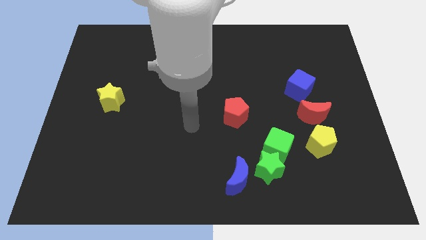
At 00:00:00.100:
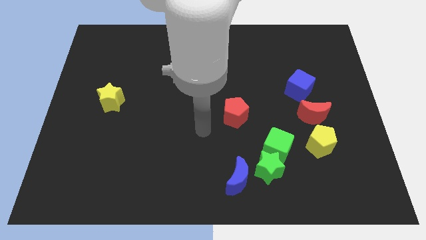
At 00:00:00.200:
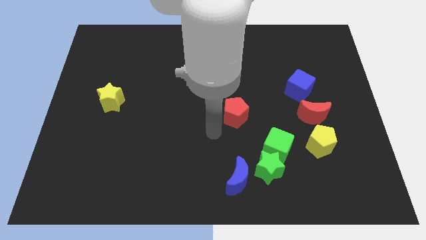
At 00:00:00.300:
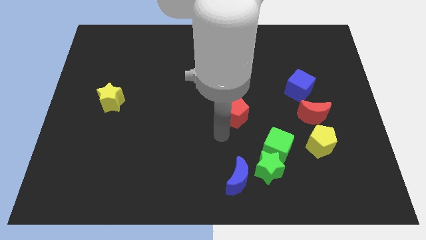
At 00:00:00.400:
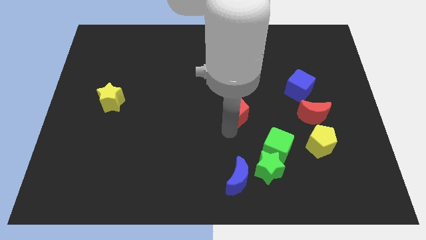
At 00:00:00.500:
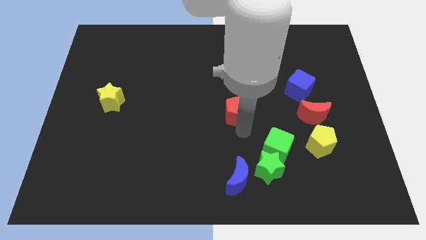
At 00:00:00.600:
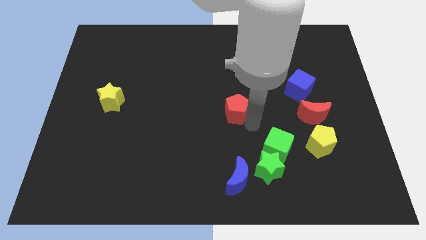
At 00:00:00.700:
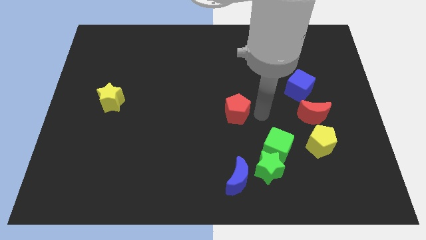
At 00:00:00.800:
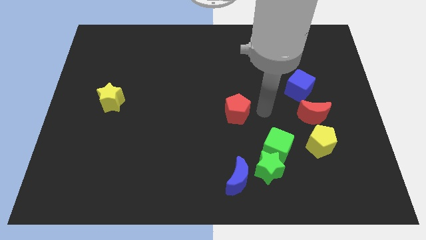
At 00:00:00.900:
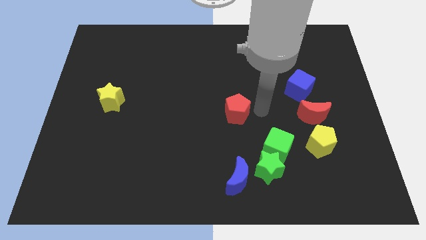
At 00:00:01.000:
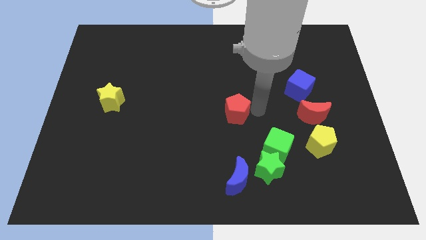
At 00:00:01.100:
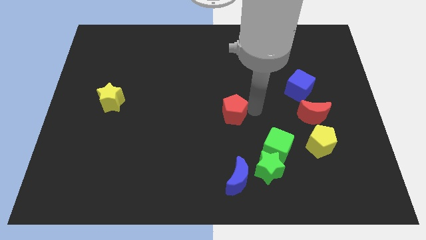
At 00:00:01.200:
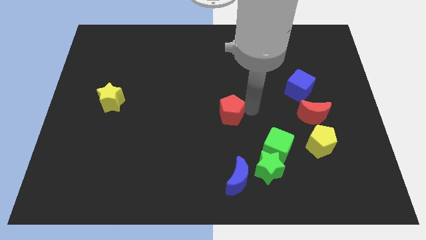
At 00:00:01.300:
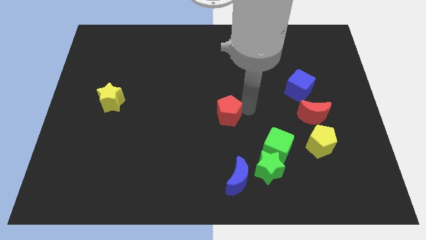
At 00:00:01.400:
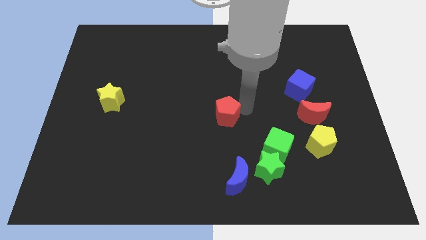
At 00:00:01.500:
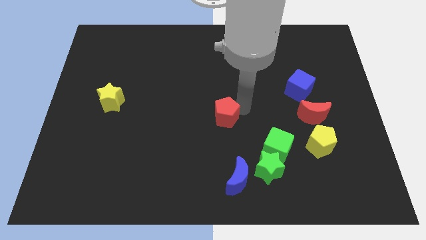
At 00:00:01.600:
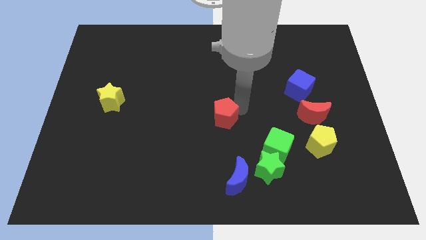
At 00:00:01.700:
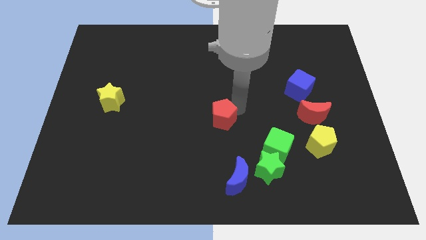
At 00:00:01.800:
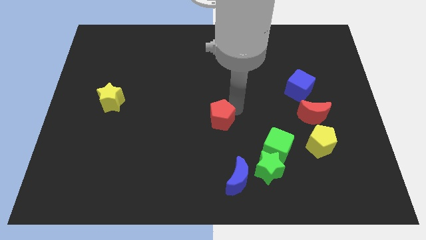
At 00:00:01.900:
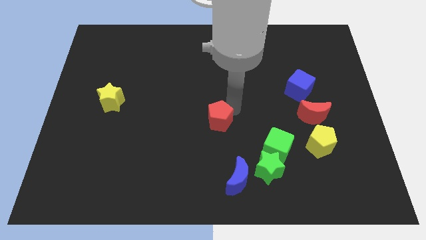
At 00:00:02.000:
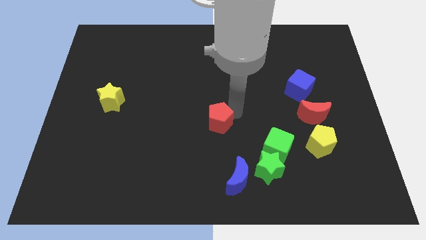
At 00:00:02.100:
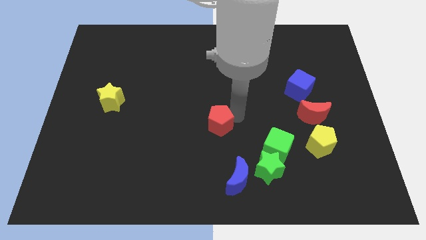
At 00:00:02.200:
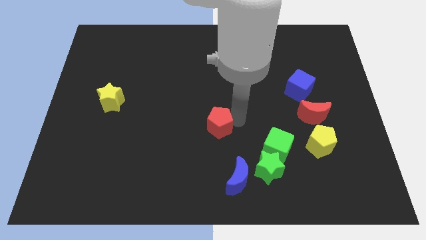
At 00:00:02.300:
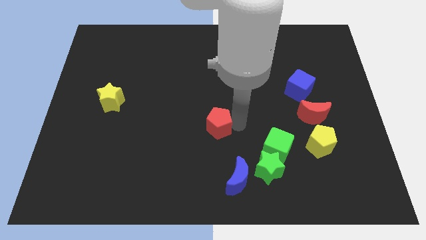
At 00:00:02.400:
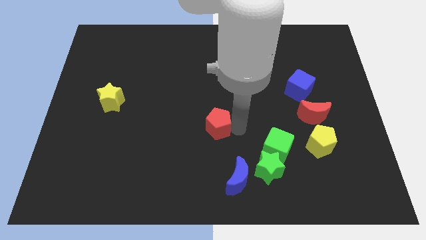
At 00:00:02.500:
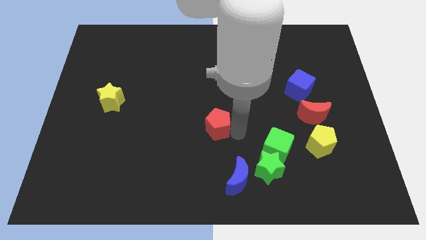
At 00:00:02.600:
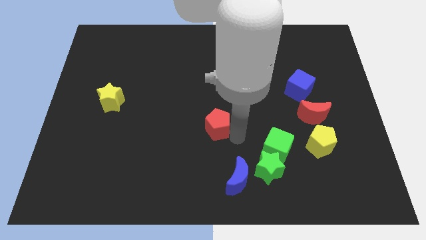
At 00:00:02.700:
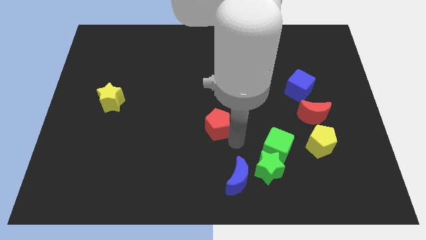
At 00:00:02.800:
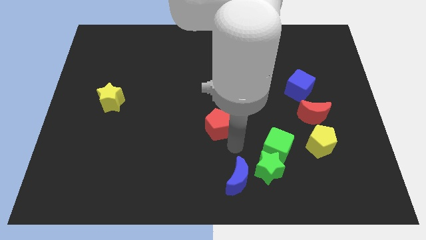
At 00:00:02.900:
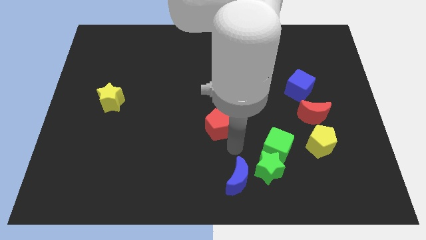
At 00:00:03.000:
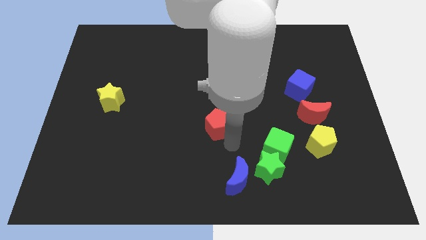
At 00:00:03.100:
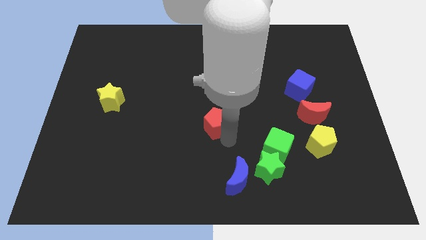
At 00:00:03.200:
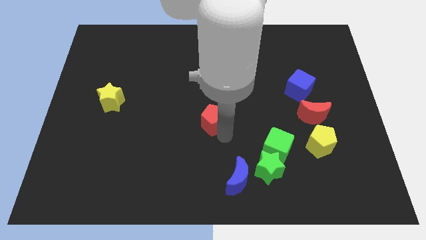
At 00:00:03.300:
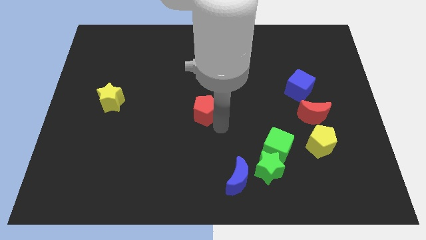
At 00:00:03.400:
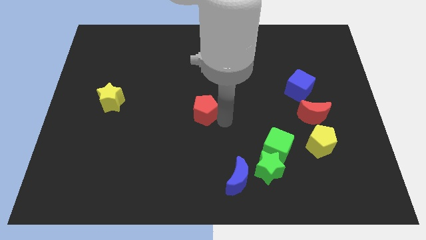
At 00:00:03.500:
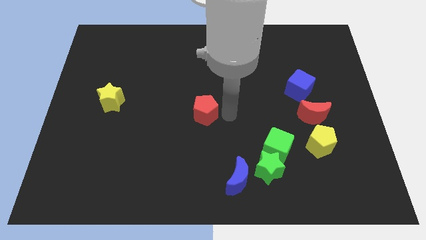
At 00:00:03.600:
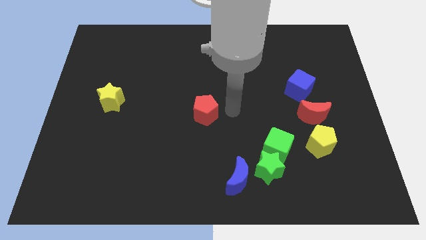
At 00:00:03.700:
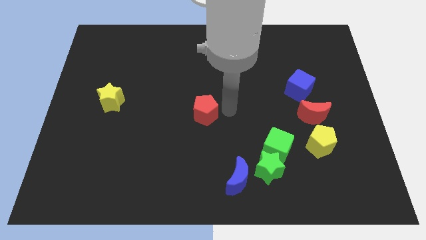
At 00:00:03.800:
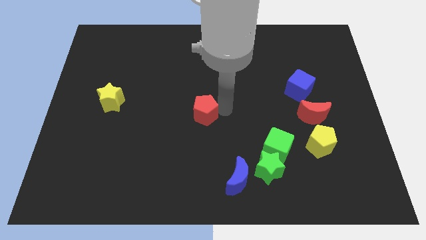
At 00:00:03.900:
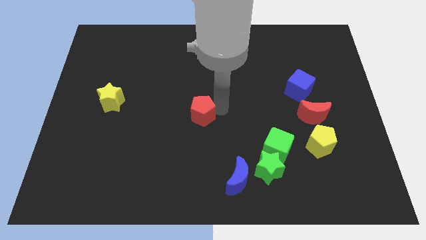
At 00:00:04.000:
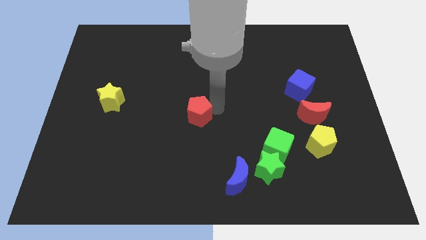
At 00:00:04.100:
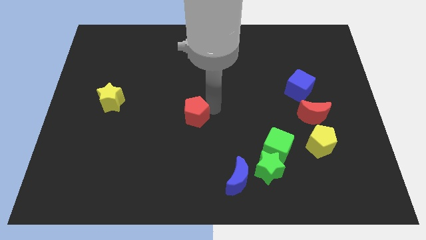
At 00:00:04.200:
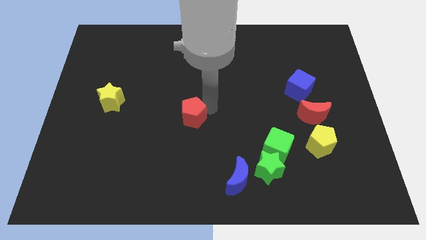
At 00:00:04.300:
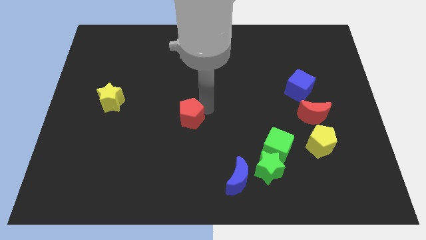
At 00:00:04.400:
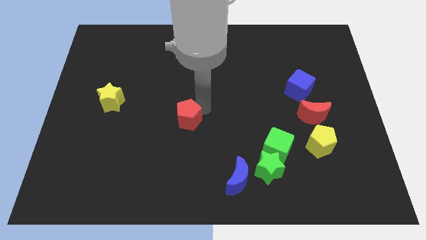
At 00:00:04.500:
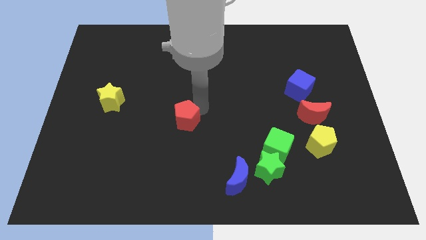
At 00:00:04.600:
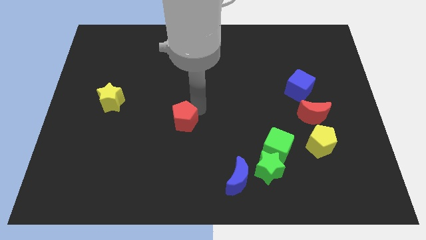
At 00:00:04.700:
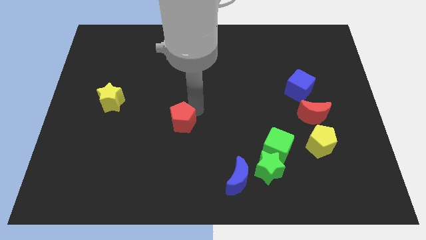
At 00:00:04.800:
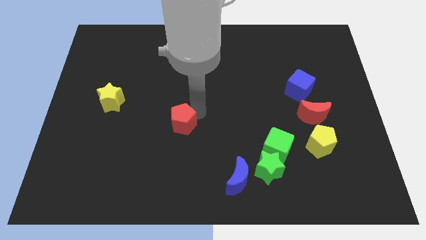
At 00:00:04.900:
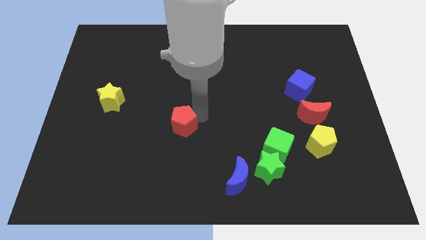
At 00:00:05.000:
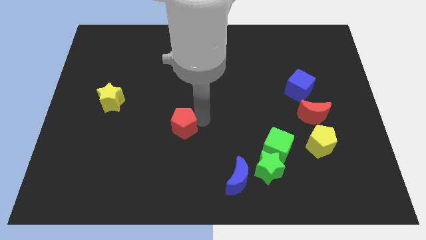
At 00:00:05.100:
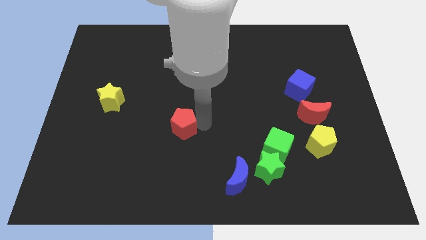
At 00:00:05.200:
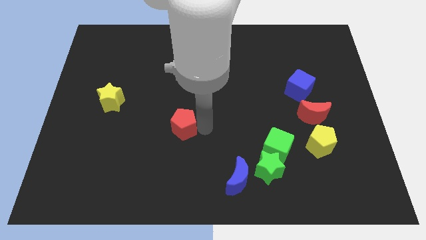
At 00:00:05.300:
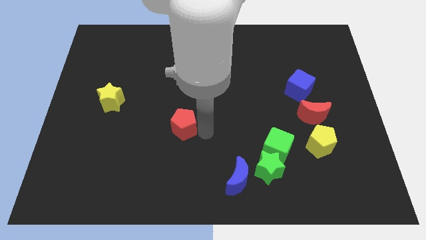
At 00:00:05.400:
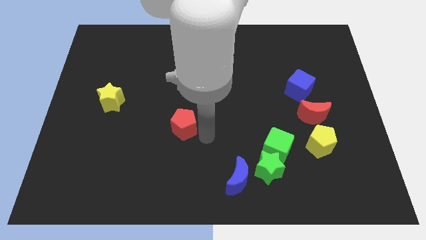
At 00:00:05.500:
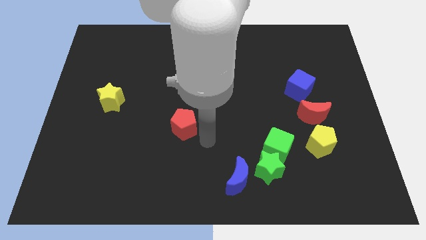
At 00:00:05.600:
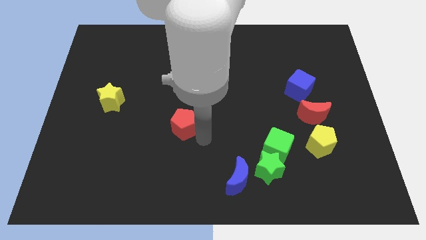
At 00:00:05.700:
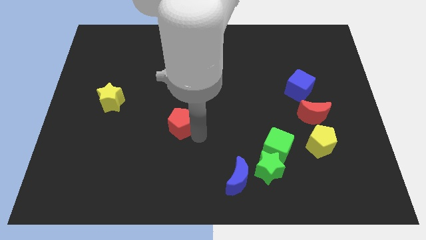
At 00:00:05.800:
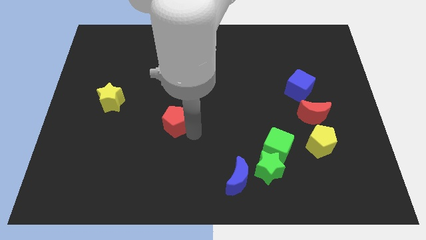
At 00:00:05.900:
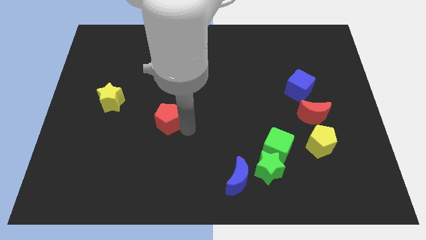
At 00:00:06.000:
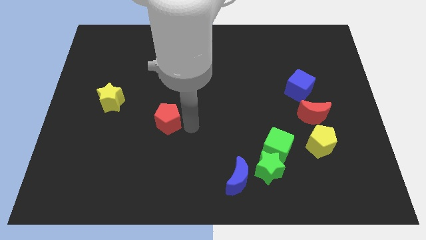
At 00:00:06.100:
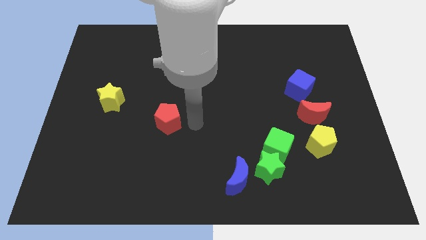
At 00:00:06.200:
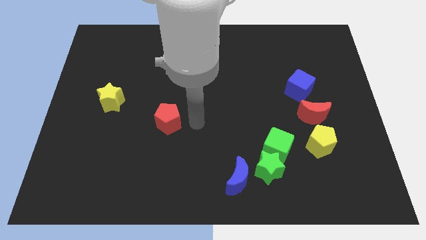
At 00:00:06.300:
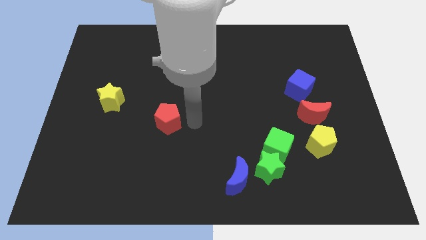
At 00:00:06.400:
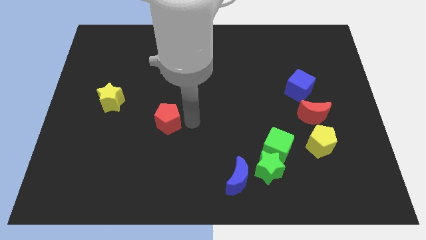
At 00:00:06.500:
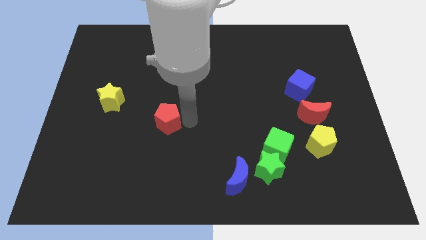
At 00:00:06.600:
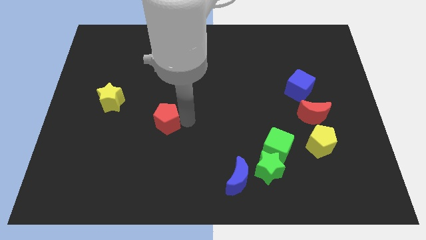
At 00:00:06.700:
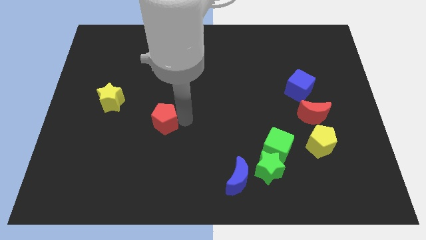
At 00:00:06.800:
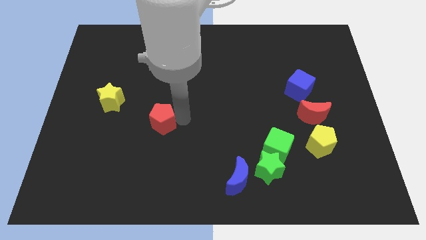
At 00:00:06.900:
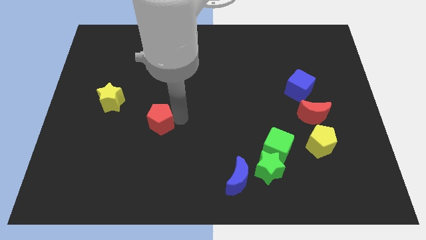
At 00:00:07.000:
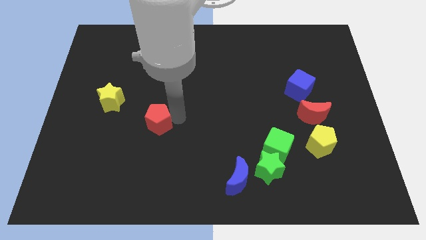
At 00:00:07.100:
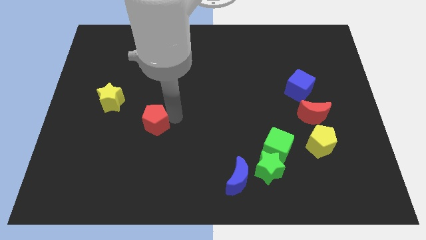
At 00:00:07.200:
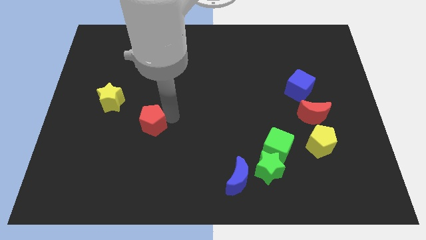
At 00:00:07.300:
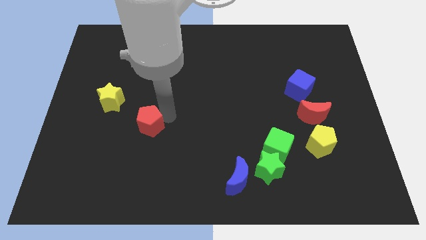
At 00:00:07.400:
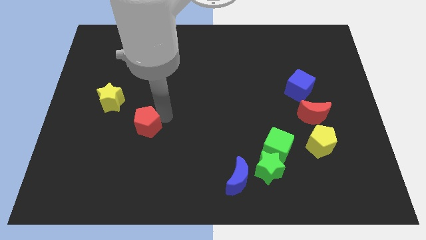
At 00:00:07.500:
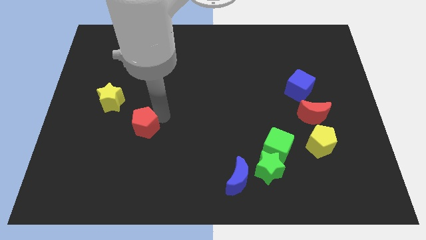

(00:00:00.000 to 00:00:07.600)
slide the red pentagon left
